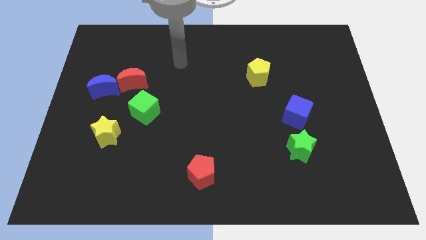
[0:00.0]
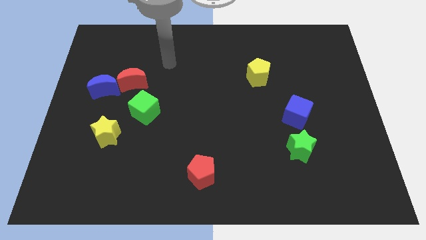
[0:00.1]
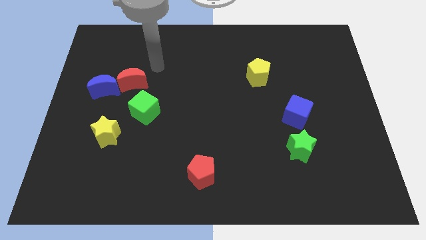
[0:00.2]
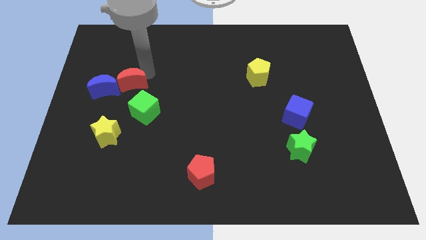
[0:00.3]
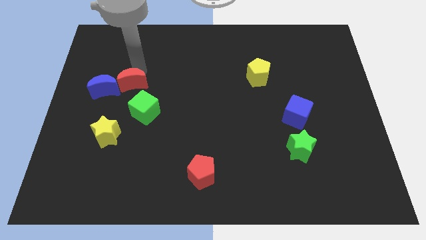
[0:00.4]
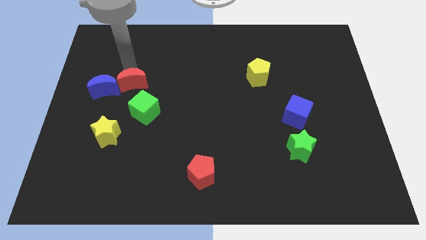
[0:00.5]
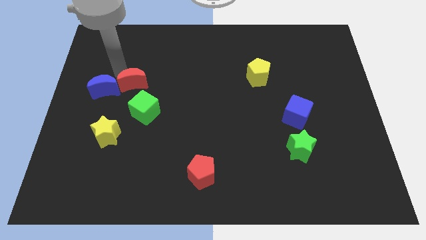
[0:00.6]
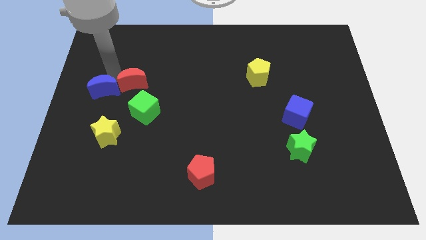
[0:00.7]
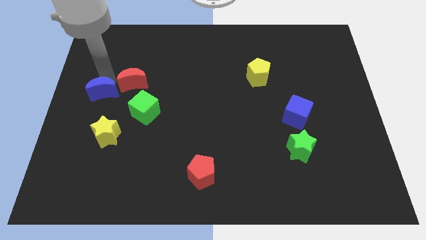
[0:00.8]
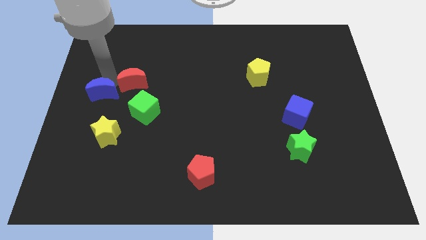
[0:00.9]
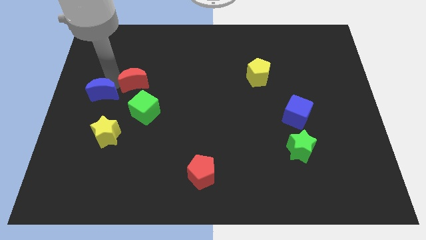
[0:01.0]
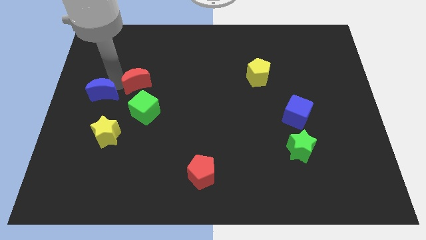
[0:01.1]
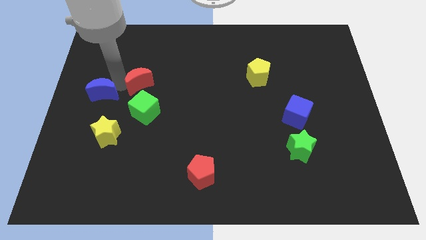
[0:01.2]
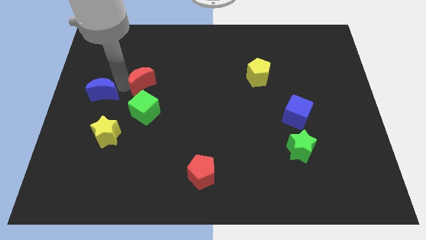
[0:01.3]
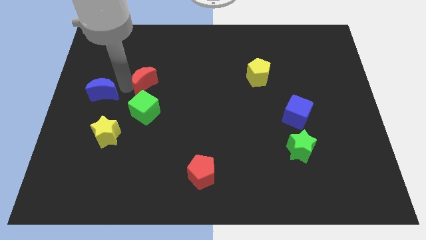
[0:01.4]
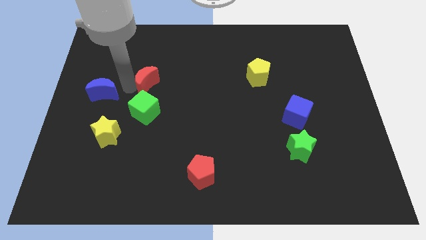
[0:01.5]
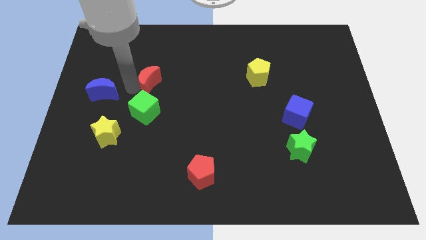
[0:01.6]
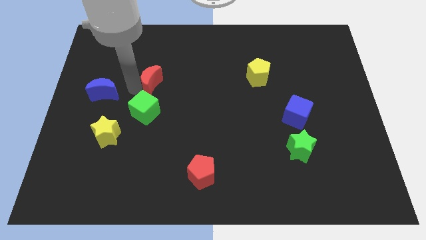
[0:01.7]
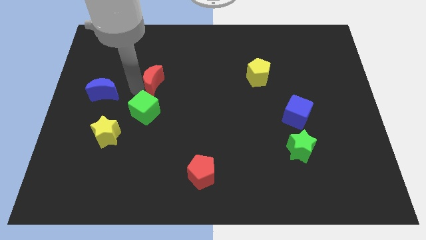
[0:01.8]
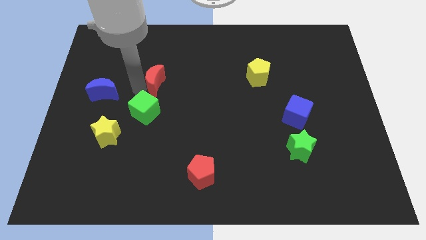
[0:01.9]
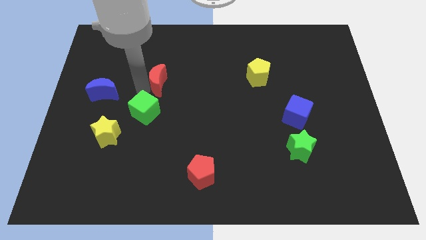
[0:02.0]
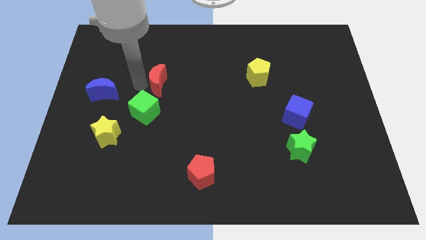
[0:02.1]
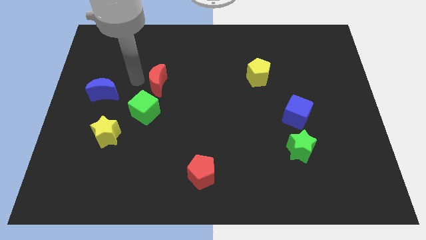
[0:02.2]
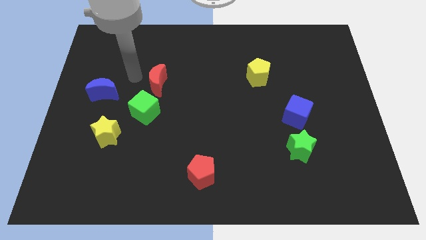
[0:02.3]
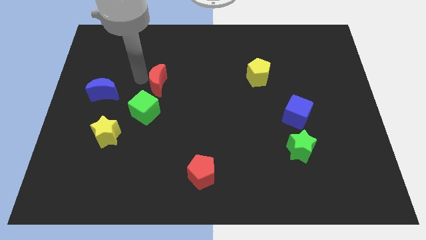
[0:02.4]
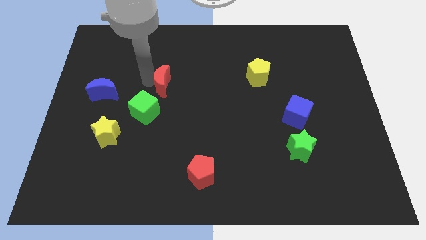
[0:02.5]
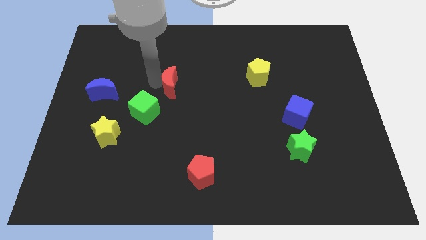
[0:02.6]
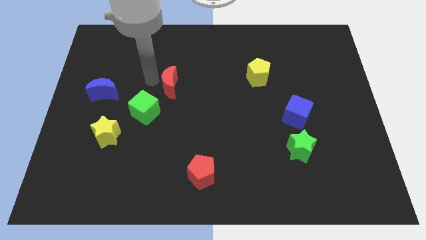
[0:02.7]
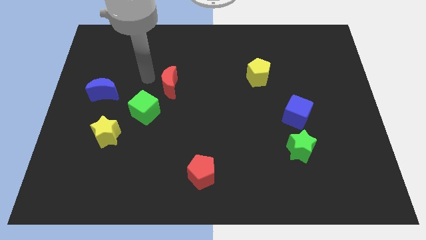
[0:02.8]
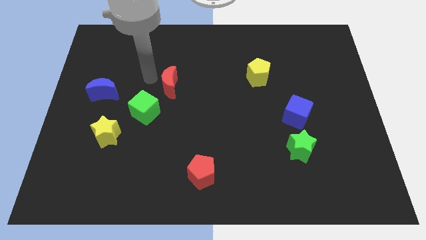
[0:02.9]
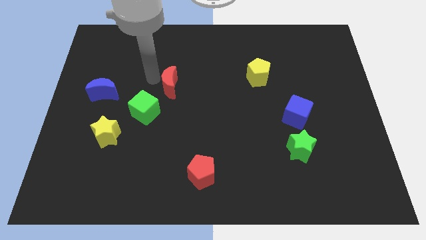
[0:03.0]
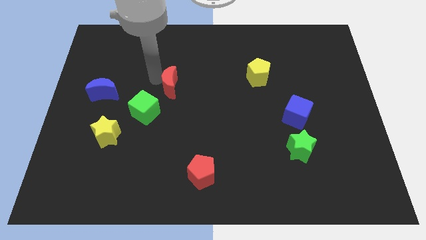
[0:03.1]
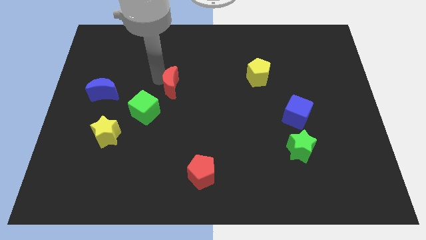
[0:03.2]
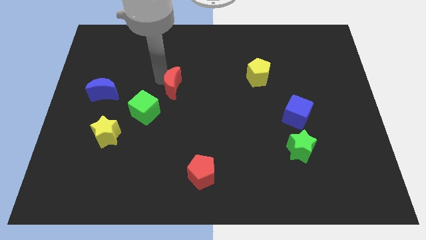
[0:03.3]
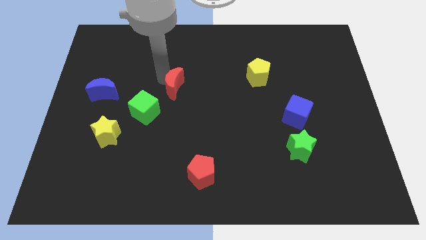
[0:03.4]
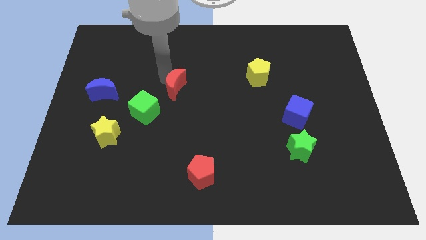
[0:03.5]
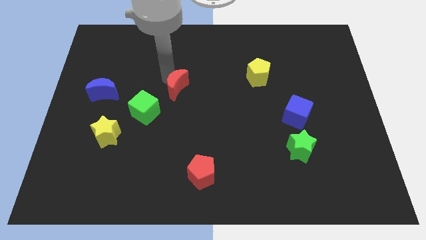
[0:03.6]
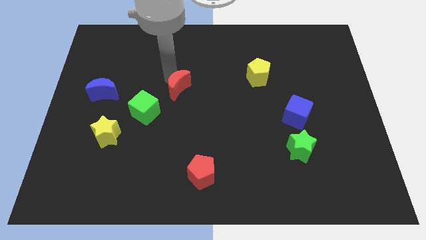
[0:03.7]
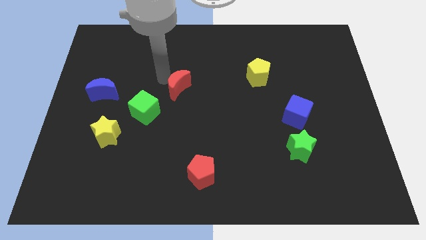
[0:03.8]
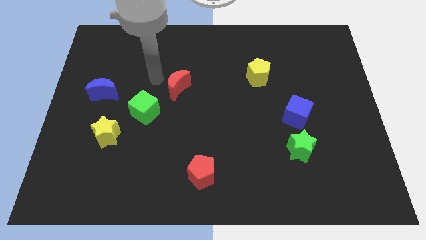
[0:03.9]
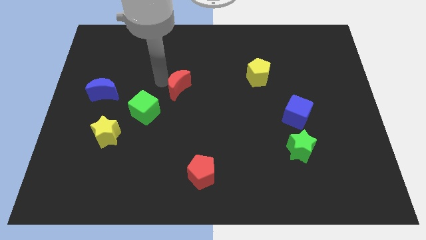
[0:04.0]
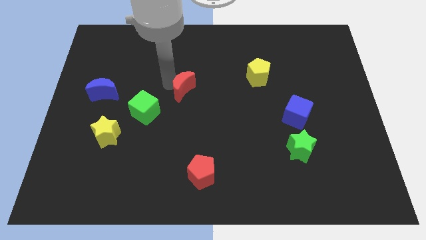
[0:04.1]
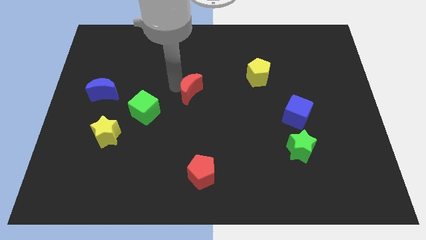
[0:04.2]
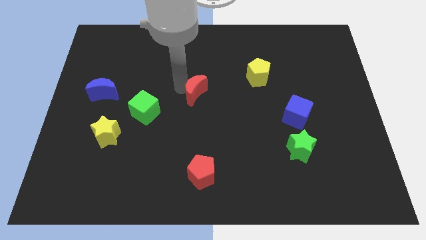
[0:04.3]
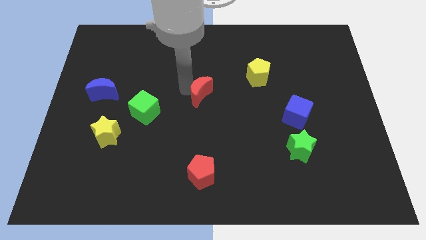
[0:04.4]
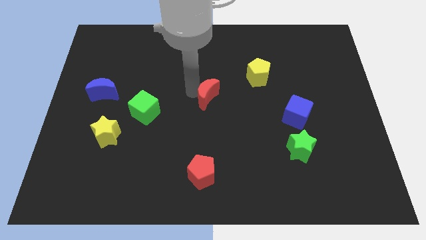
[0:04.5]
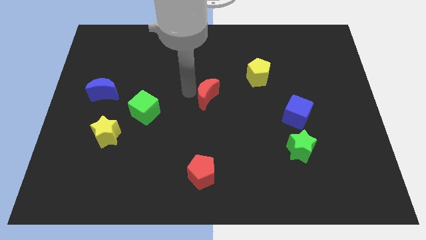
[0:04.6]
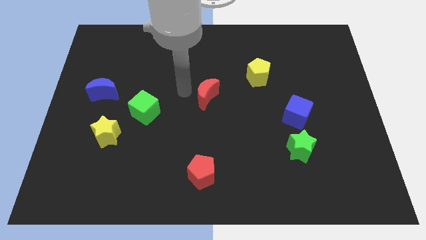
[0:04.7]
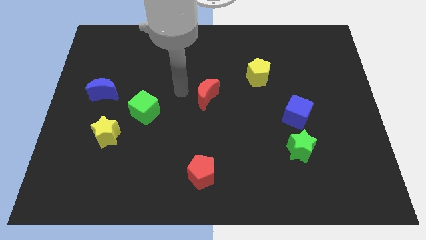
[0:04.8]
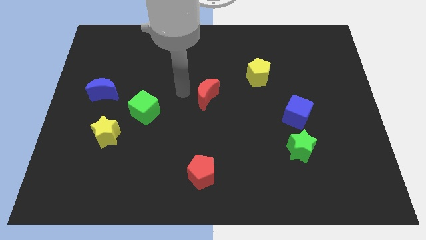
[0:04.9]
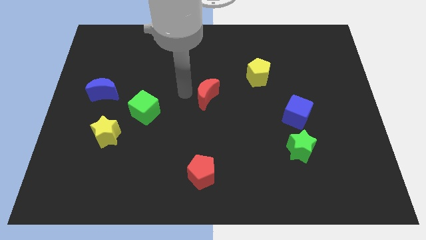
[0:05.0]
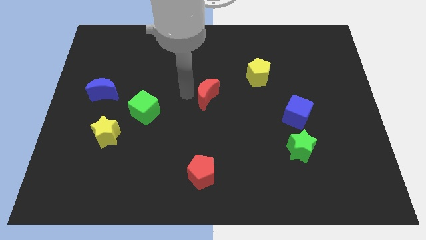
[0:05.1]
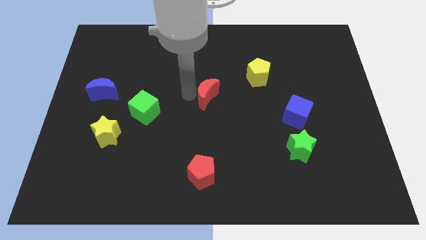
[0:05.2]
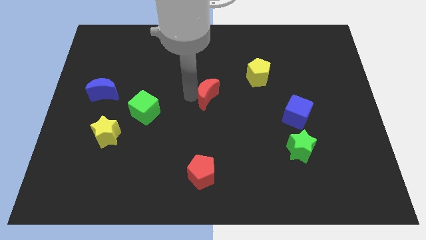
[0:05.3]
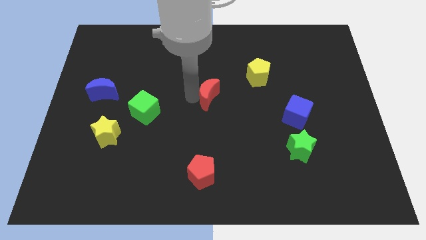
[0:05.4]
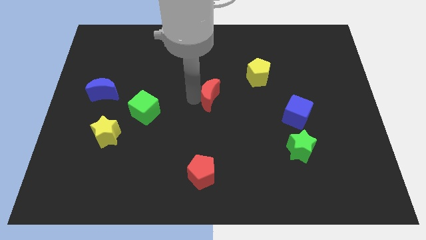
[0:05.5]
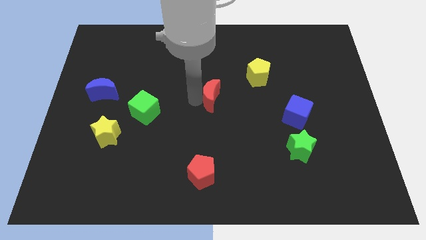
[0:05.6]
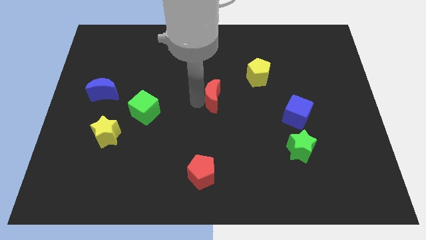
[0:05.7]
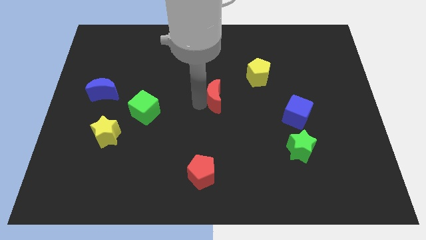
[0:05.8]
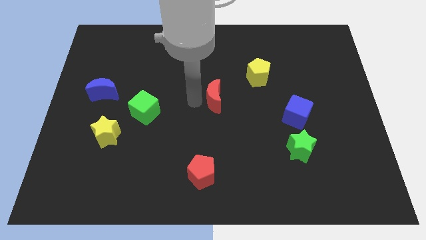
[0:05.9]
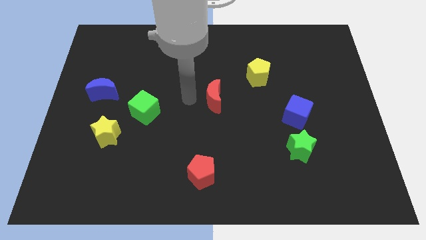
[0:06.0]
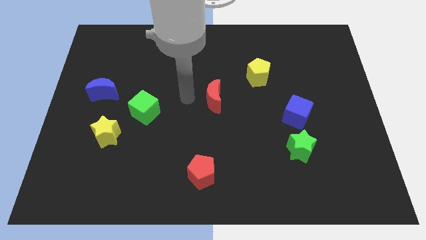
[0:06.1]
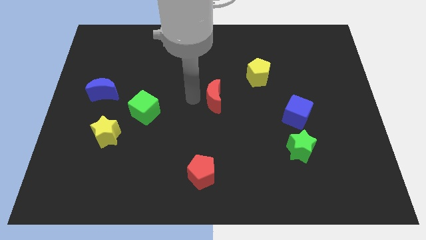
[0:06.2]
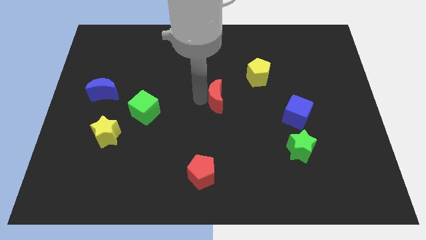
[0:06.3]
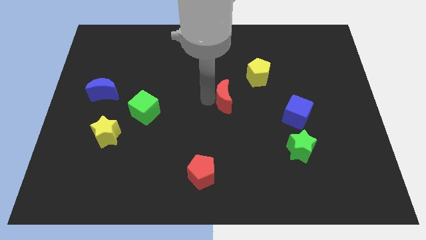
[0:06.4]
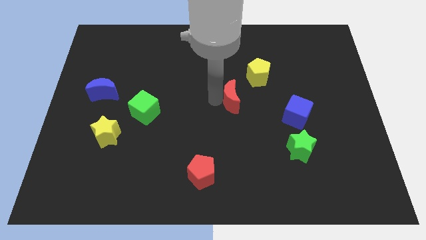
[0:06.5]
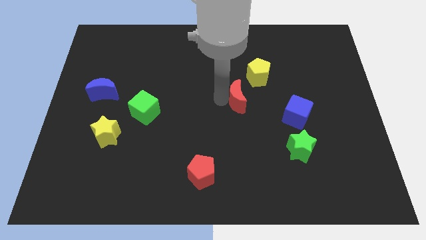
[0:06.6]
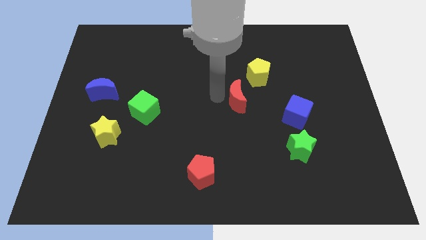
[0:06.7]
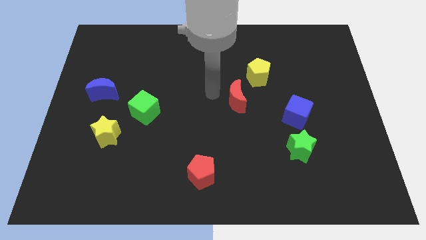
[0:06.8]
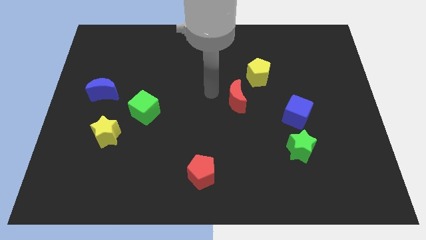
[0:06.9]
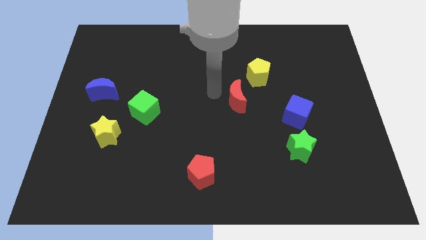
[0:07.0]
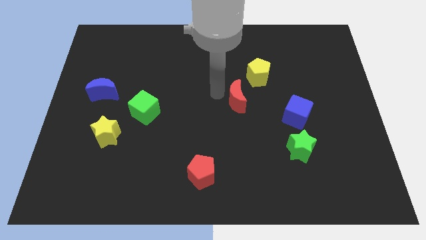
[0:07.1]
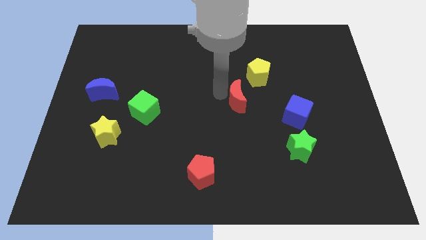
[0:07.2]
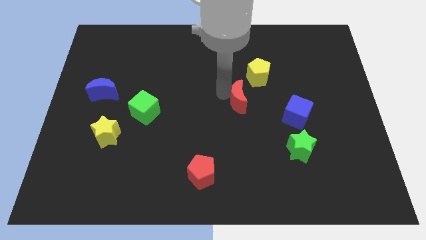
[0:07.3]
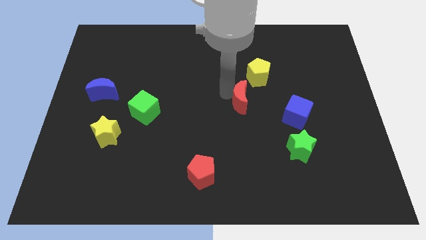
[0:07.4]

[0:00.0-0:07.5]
put the red moon to the bottom side of the yellow pentagon
